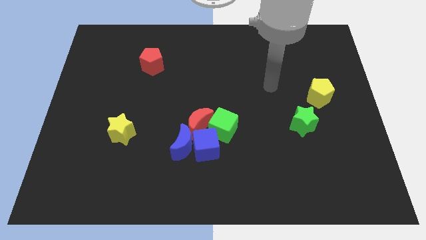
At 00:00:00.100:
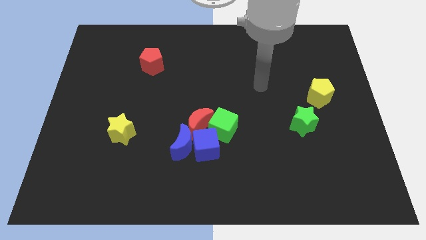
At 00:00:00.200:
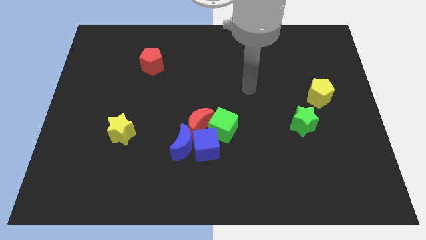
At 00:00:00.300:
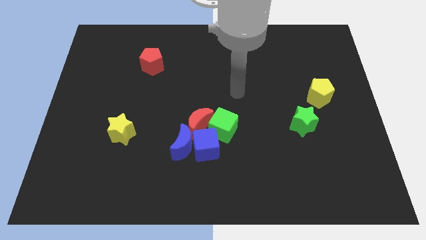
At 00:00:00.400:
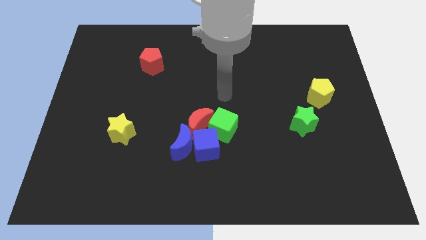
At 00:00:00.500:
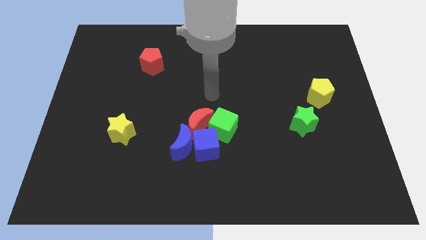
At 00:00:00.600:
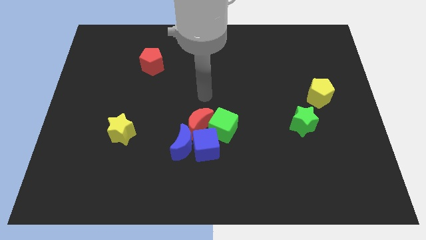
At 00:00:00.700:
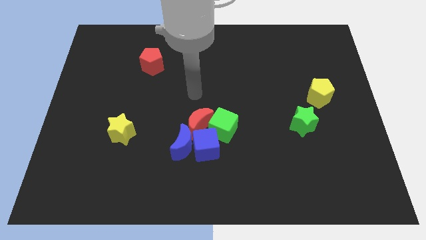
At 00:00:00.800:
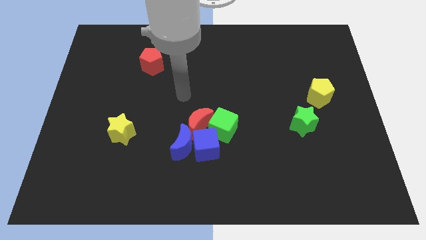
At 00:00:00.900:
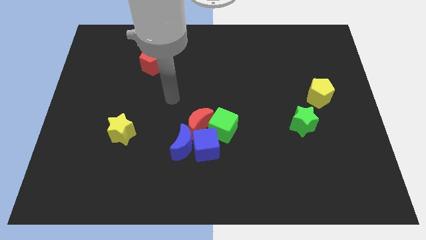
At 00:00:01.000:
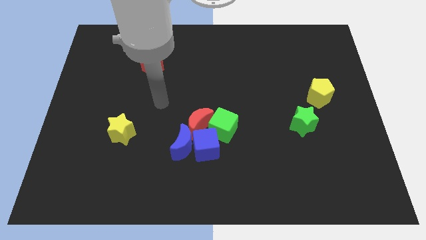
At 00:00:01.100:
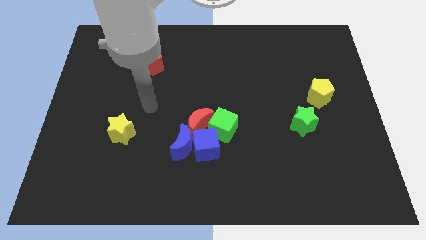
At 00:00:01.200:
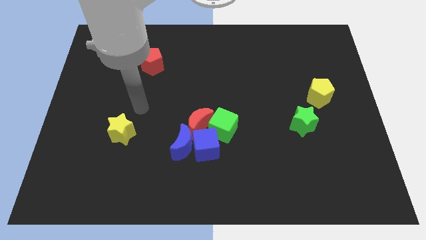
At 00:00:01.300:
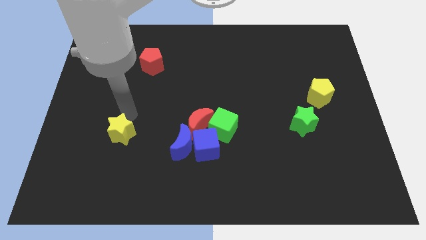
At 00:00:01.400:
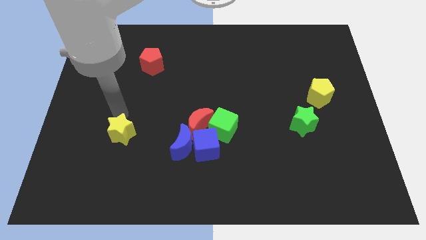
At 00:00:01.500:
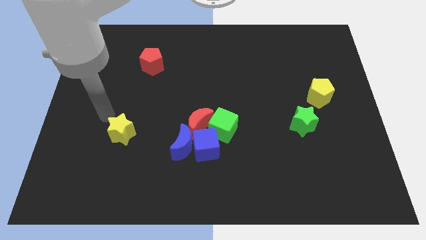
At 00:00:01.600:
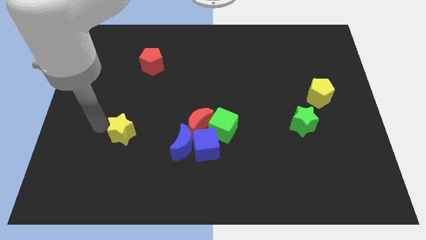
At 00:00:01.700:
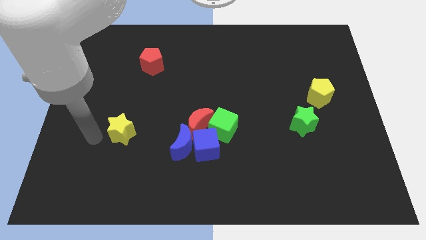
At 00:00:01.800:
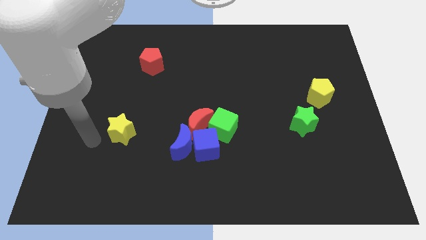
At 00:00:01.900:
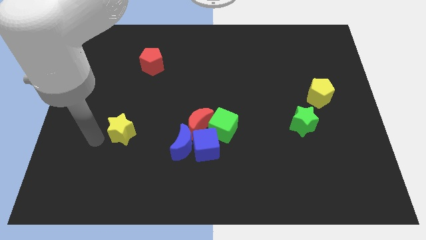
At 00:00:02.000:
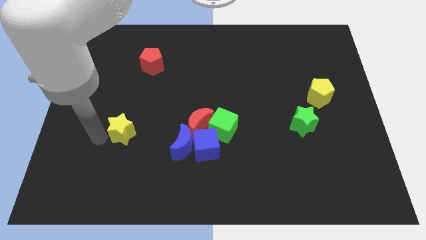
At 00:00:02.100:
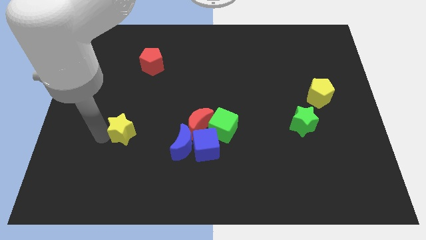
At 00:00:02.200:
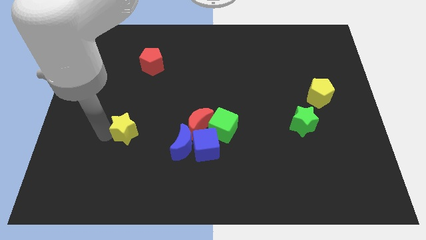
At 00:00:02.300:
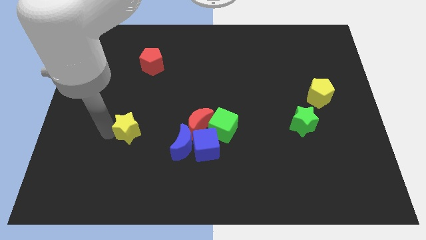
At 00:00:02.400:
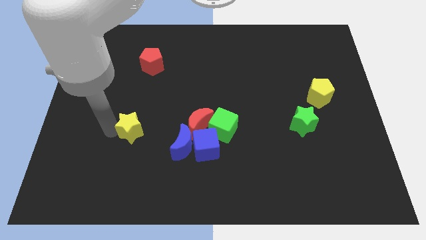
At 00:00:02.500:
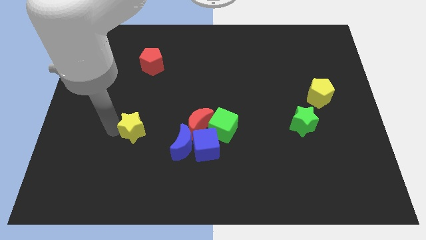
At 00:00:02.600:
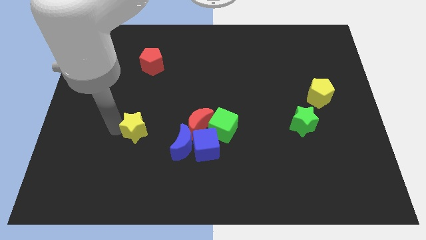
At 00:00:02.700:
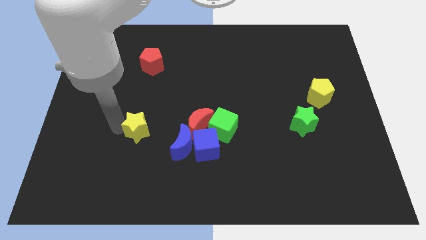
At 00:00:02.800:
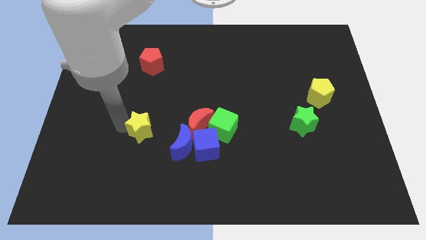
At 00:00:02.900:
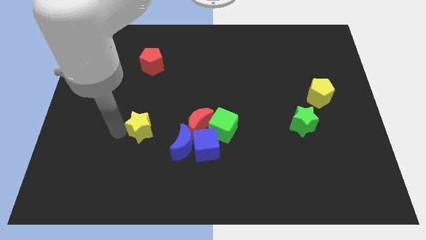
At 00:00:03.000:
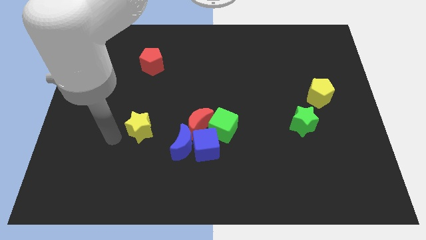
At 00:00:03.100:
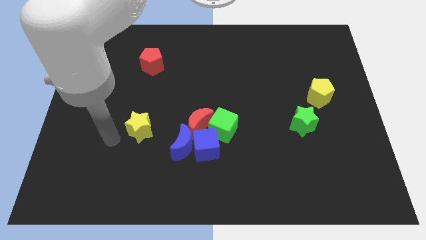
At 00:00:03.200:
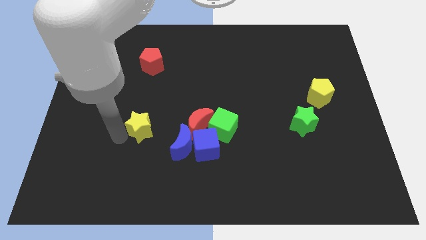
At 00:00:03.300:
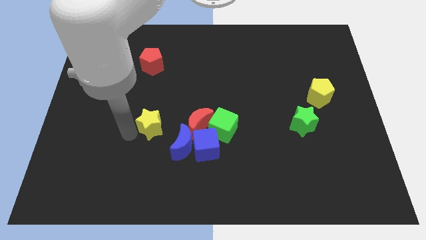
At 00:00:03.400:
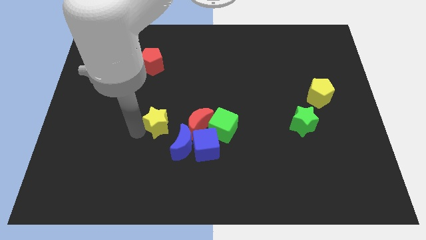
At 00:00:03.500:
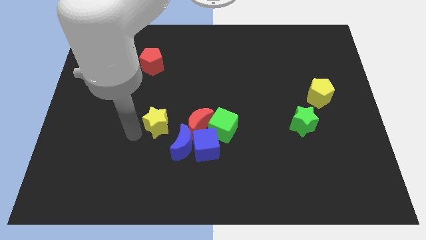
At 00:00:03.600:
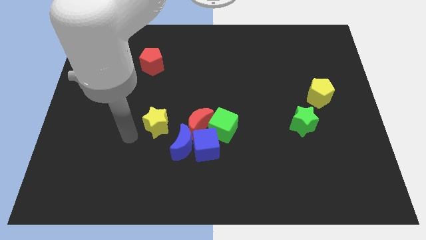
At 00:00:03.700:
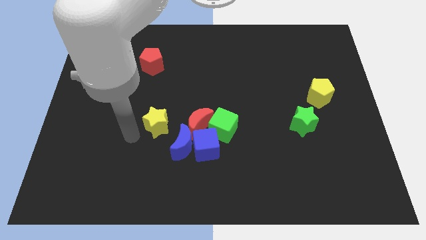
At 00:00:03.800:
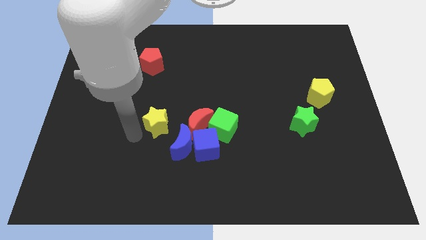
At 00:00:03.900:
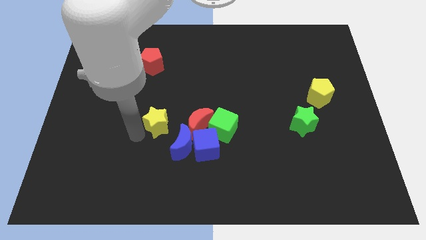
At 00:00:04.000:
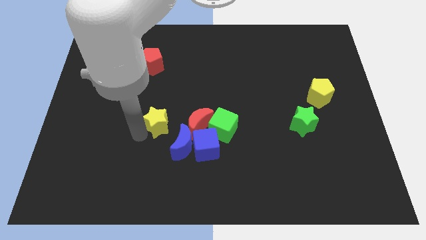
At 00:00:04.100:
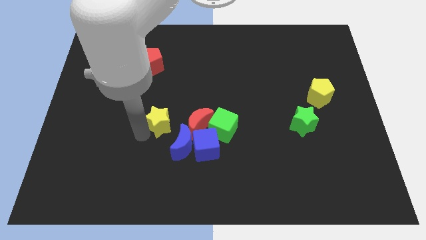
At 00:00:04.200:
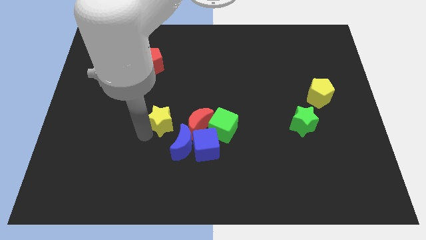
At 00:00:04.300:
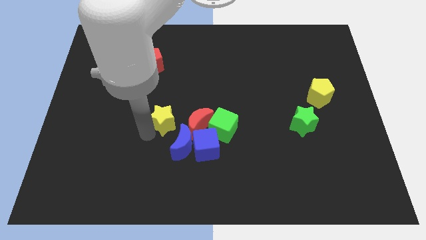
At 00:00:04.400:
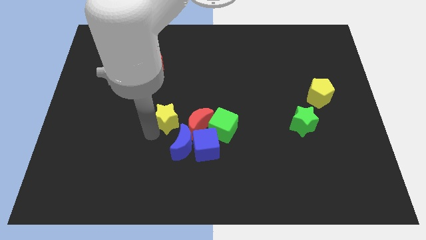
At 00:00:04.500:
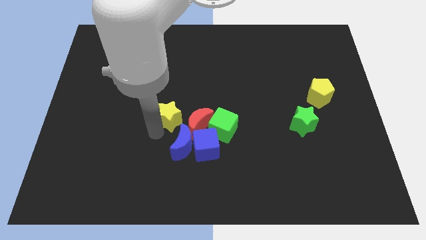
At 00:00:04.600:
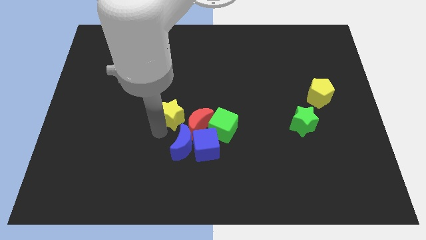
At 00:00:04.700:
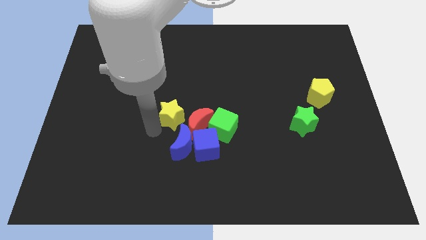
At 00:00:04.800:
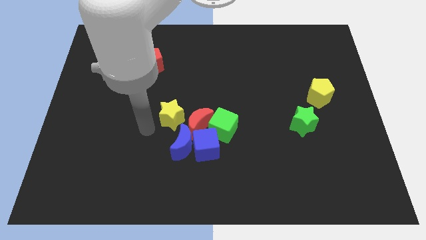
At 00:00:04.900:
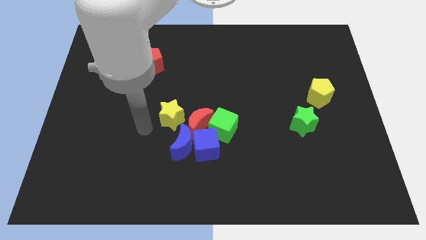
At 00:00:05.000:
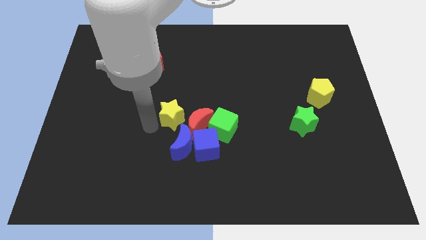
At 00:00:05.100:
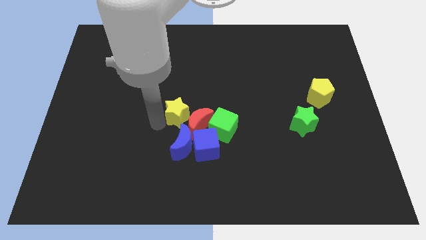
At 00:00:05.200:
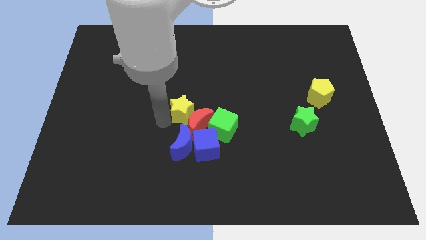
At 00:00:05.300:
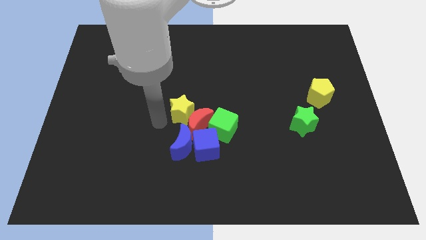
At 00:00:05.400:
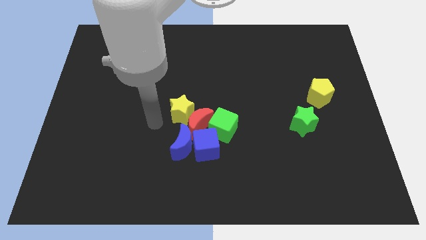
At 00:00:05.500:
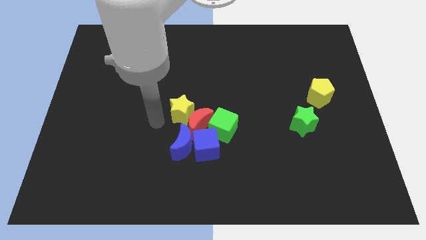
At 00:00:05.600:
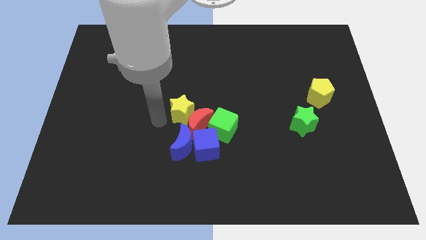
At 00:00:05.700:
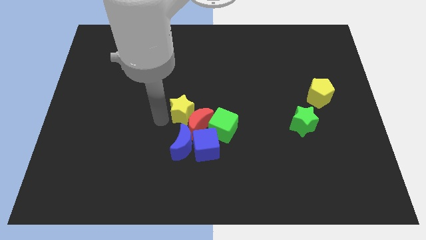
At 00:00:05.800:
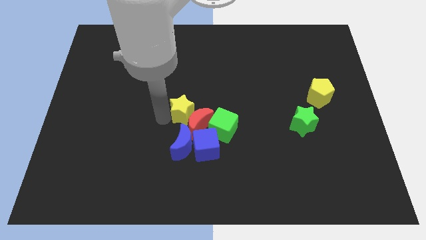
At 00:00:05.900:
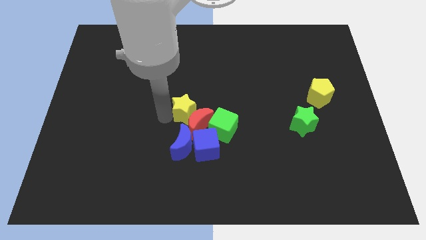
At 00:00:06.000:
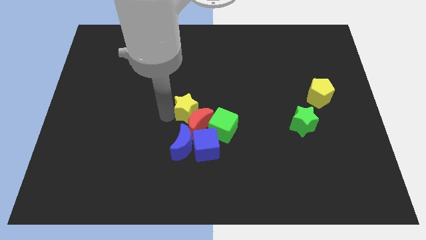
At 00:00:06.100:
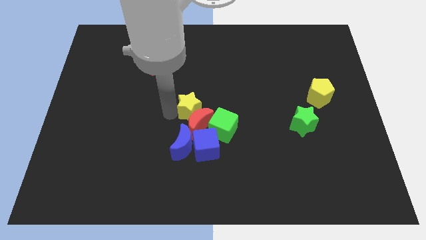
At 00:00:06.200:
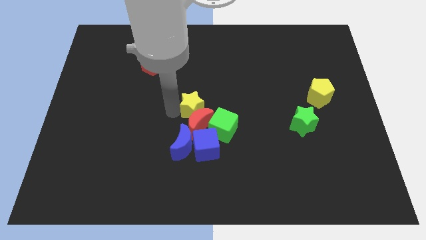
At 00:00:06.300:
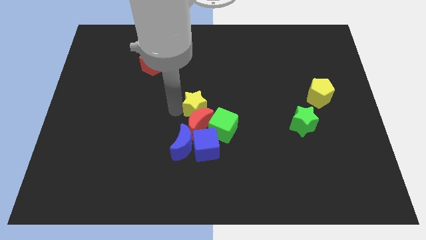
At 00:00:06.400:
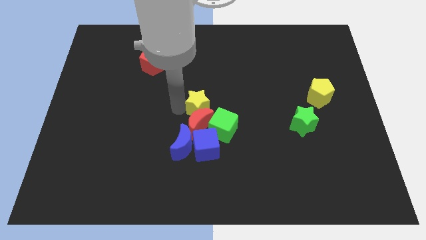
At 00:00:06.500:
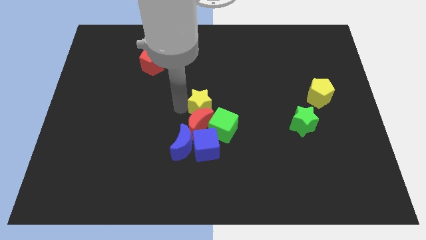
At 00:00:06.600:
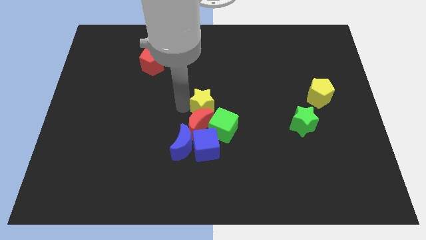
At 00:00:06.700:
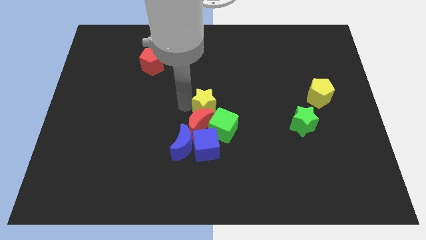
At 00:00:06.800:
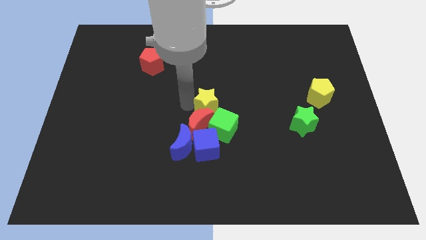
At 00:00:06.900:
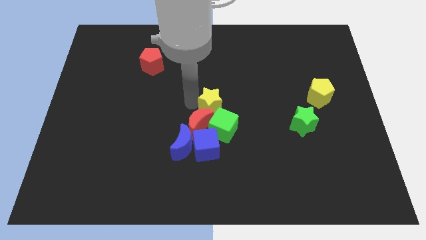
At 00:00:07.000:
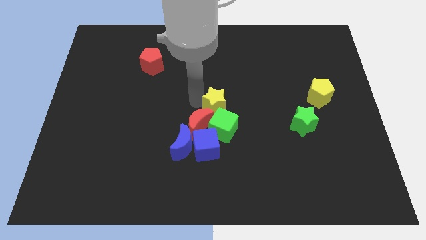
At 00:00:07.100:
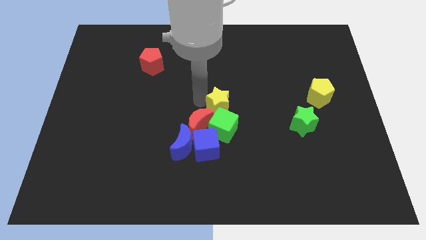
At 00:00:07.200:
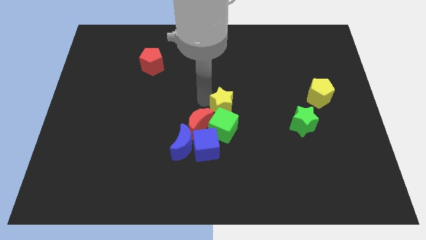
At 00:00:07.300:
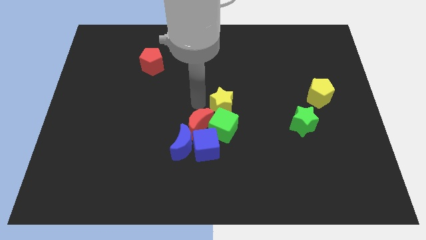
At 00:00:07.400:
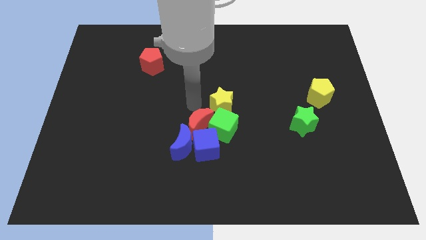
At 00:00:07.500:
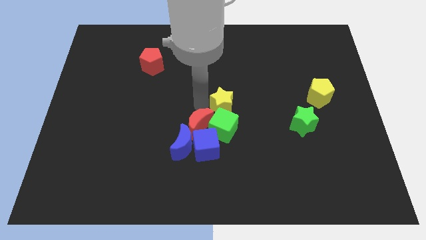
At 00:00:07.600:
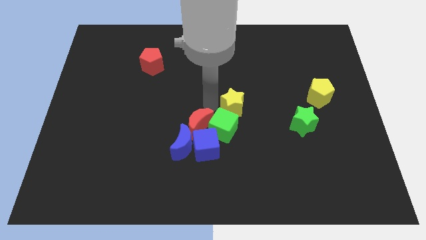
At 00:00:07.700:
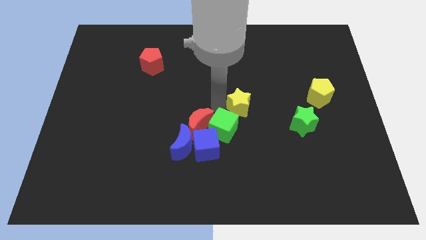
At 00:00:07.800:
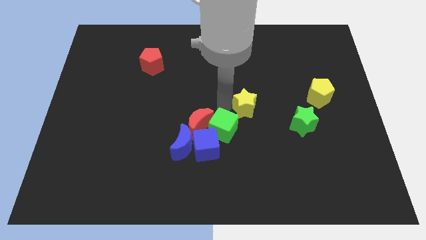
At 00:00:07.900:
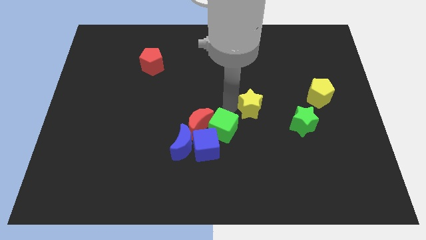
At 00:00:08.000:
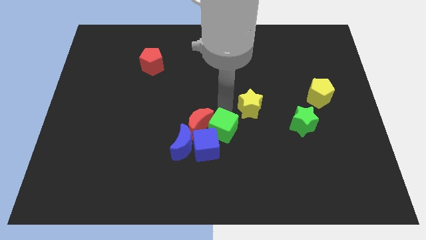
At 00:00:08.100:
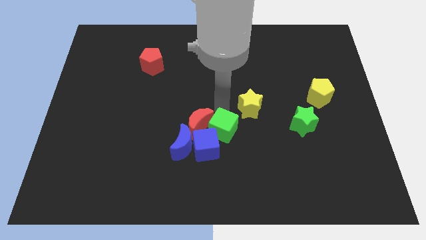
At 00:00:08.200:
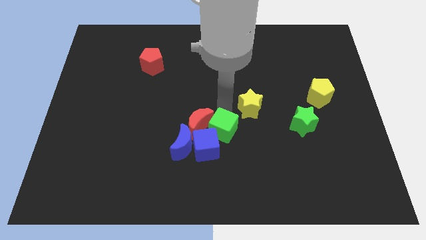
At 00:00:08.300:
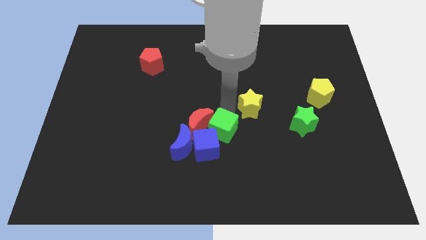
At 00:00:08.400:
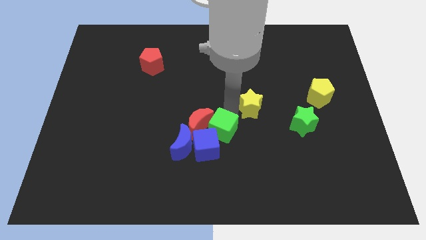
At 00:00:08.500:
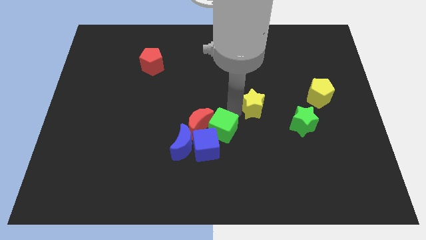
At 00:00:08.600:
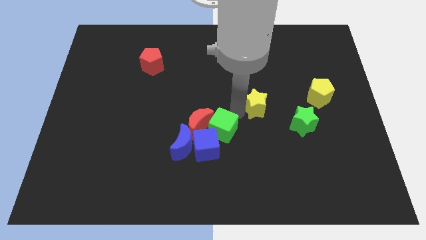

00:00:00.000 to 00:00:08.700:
slide the yellow star to the top left of the green star
